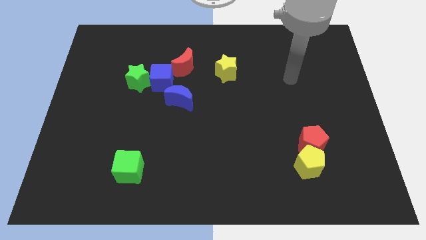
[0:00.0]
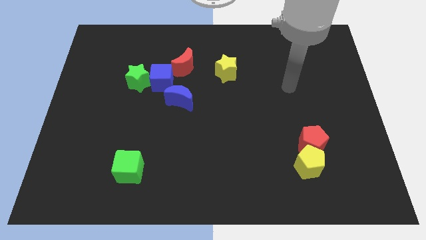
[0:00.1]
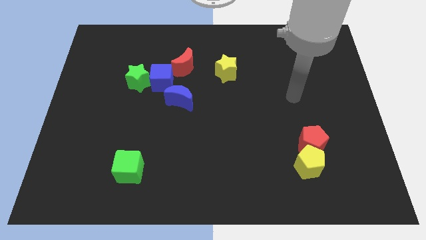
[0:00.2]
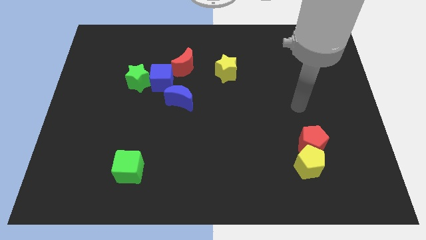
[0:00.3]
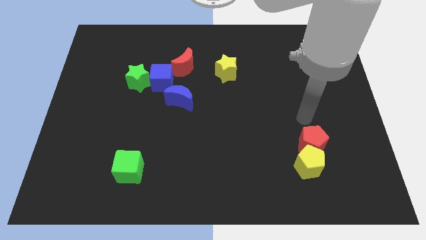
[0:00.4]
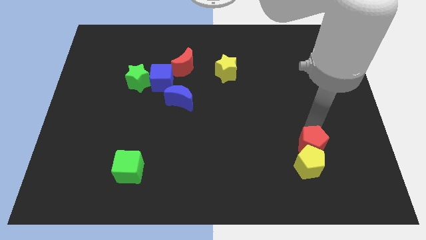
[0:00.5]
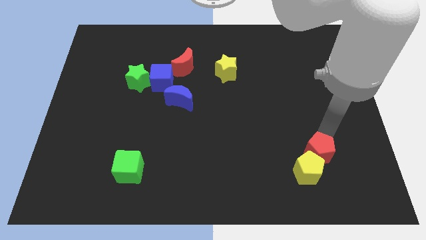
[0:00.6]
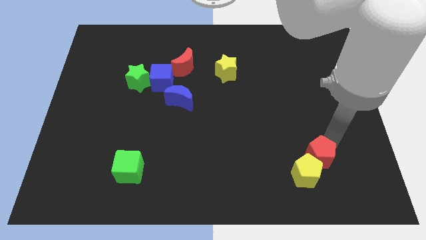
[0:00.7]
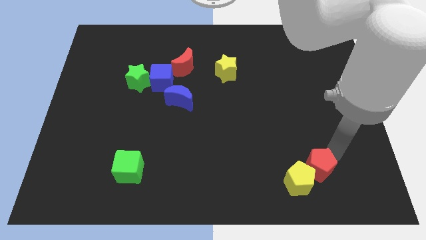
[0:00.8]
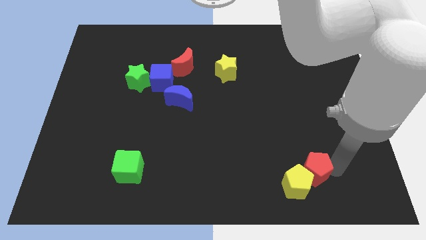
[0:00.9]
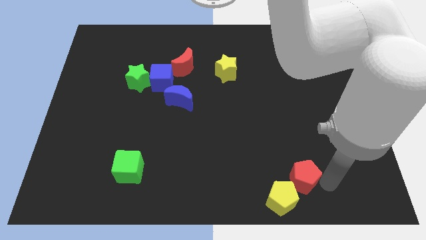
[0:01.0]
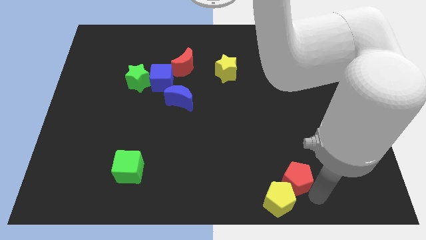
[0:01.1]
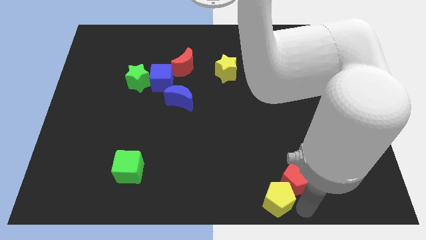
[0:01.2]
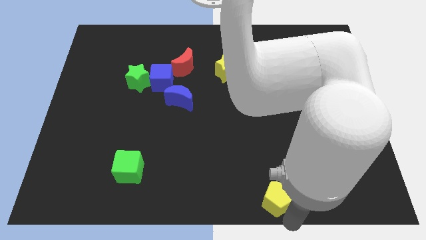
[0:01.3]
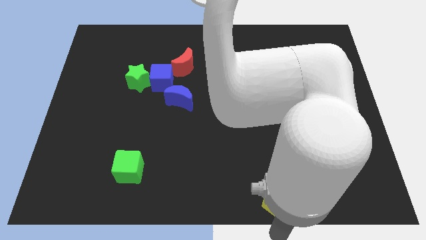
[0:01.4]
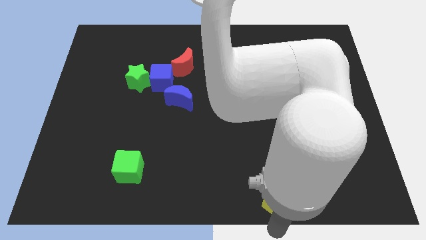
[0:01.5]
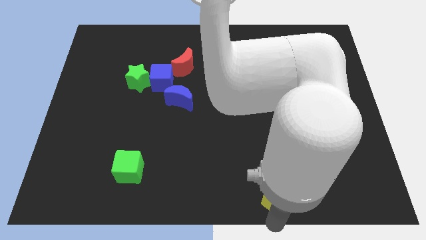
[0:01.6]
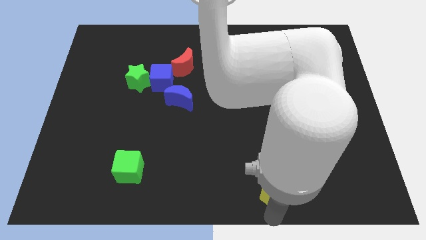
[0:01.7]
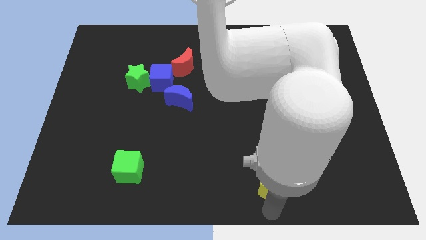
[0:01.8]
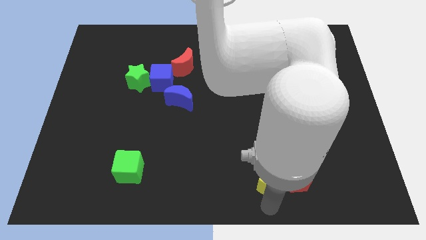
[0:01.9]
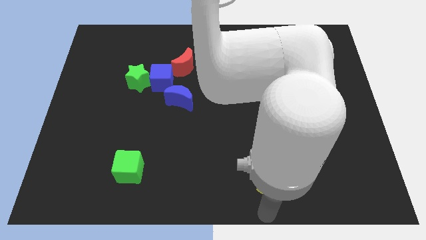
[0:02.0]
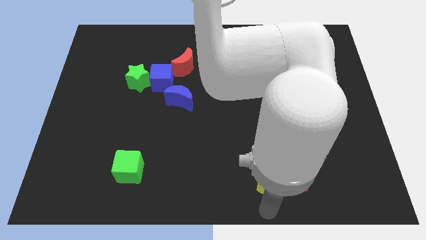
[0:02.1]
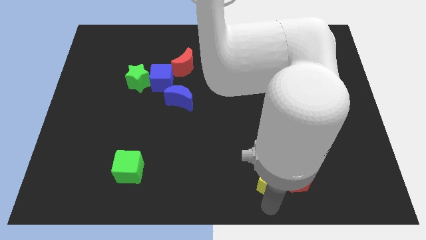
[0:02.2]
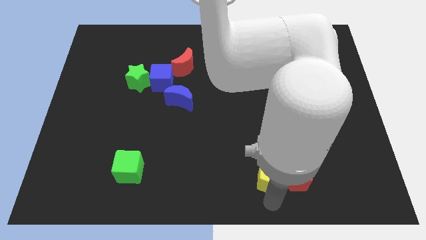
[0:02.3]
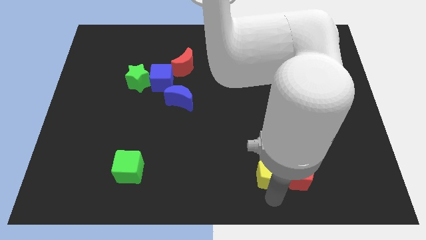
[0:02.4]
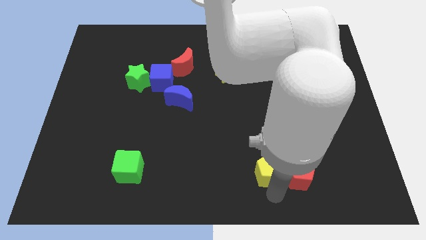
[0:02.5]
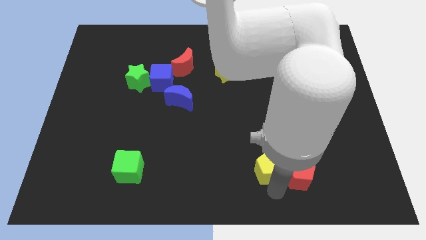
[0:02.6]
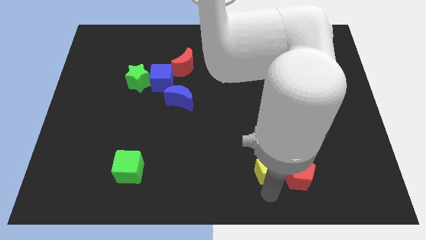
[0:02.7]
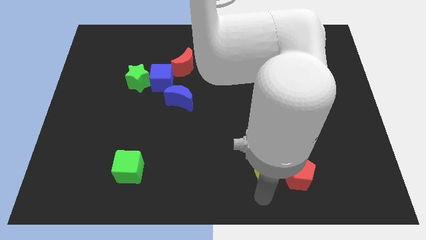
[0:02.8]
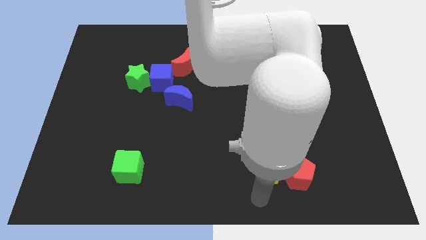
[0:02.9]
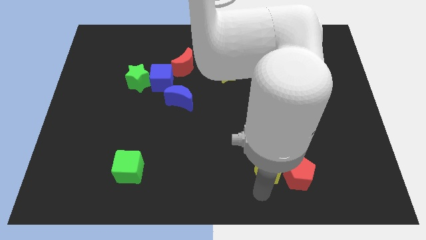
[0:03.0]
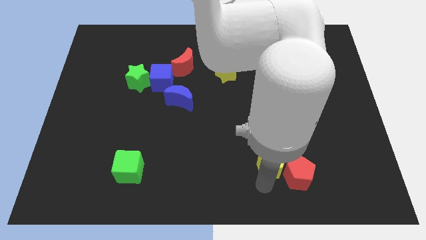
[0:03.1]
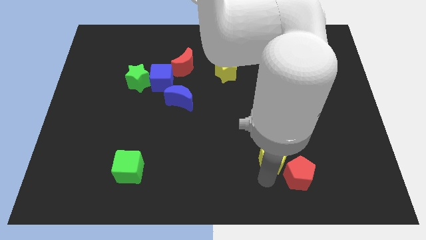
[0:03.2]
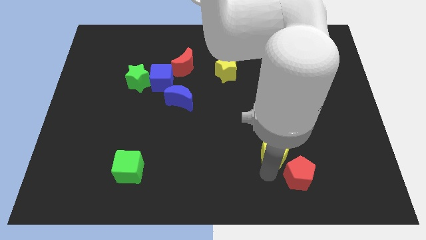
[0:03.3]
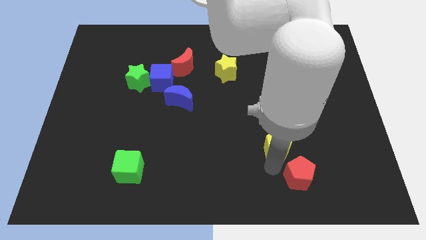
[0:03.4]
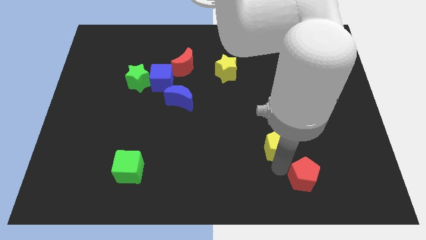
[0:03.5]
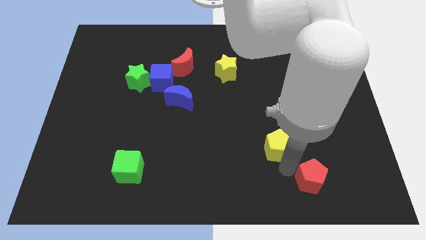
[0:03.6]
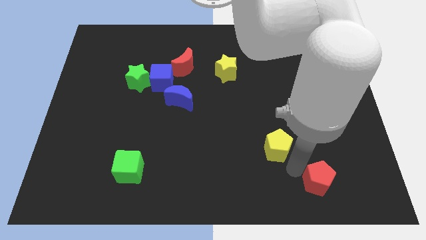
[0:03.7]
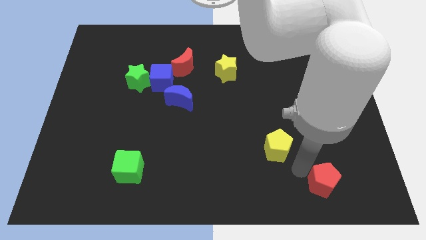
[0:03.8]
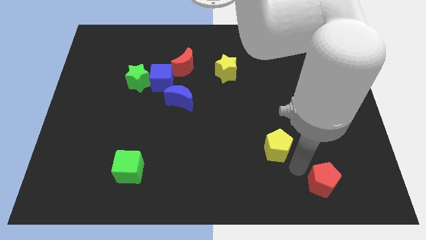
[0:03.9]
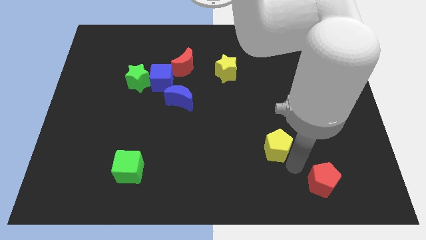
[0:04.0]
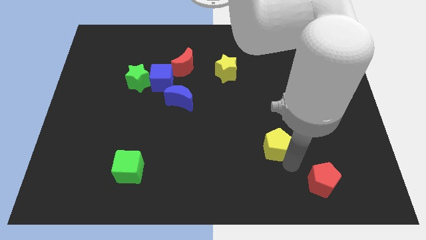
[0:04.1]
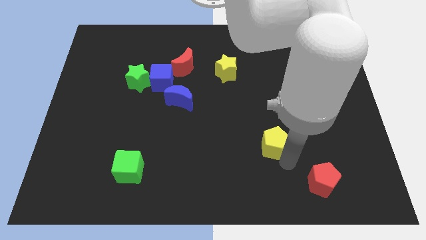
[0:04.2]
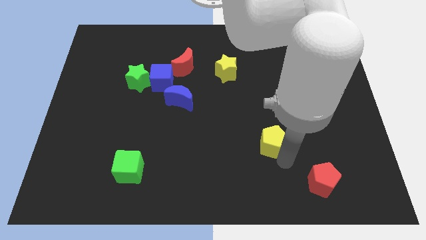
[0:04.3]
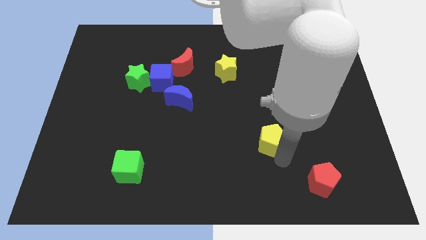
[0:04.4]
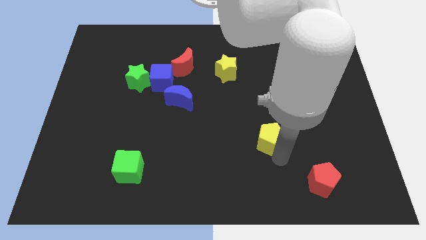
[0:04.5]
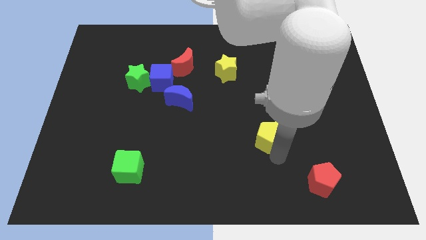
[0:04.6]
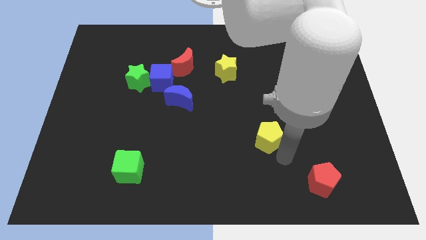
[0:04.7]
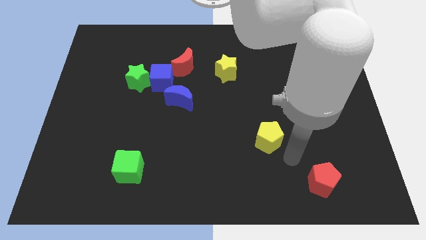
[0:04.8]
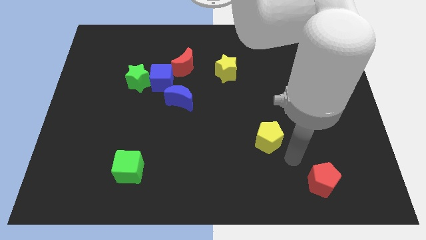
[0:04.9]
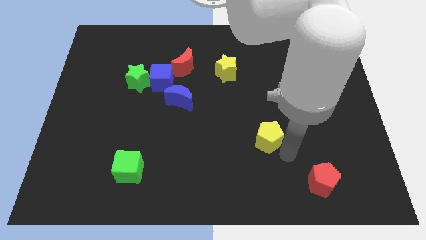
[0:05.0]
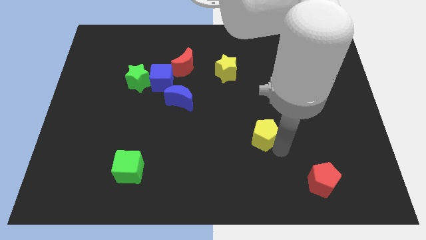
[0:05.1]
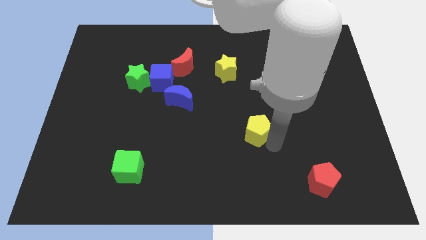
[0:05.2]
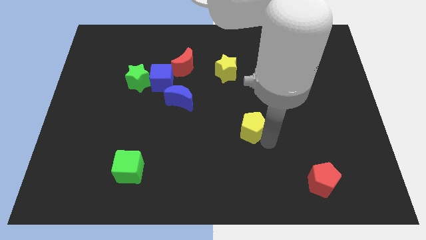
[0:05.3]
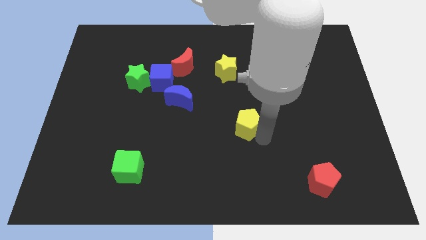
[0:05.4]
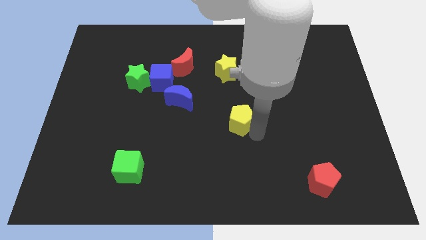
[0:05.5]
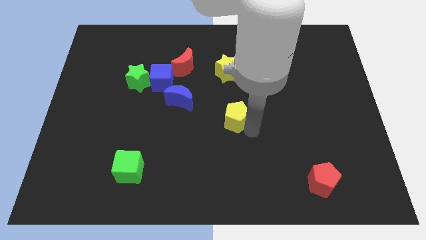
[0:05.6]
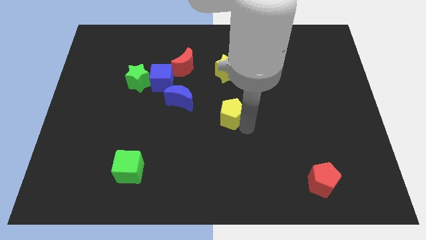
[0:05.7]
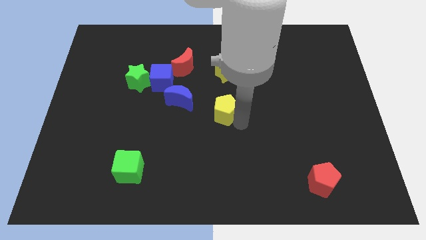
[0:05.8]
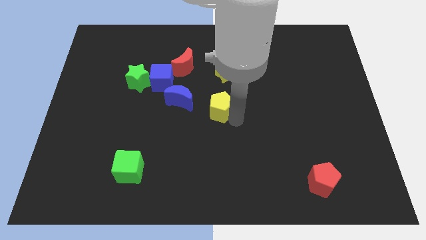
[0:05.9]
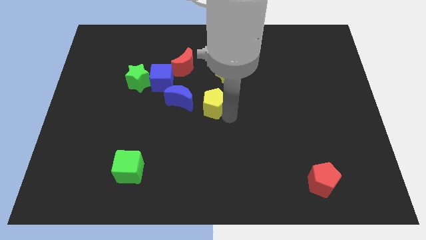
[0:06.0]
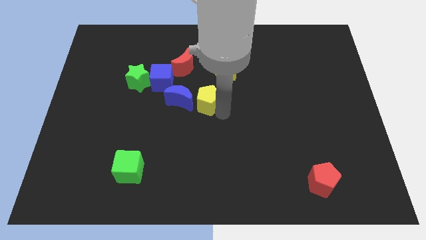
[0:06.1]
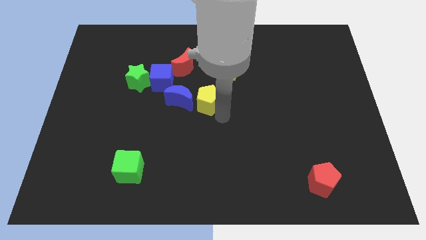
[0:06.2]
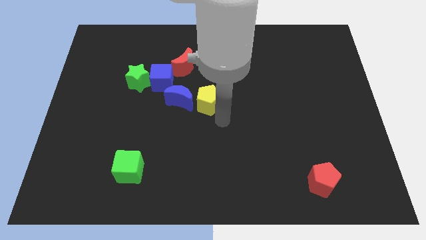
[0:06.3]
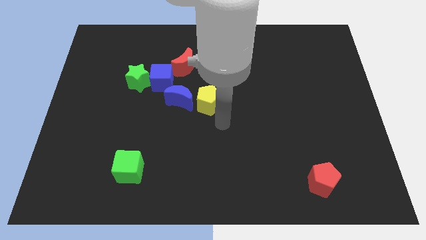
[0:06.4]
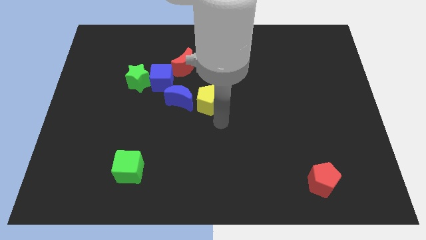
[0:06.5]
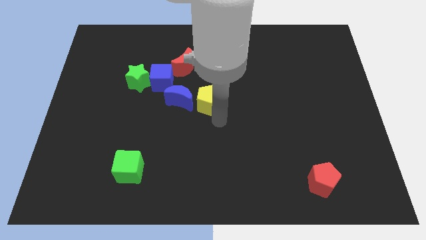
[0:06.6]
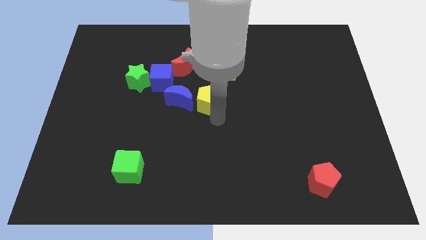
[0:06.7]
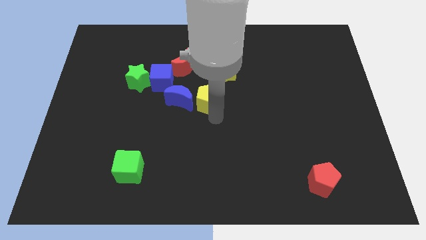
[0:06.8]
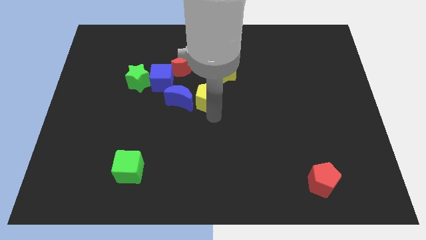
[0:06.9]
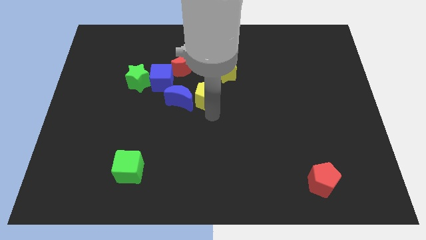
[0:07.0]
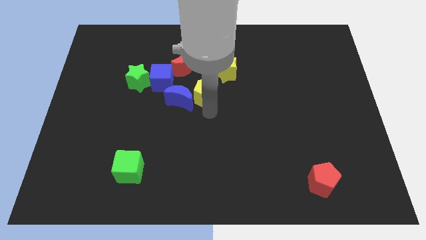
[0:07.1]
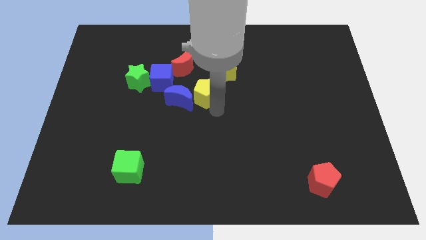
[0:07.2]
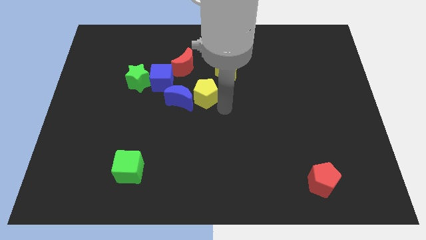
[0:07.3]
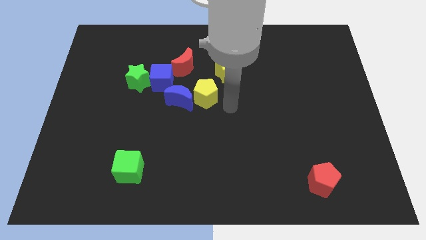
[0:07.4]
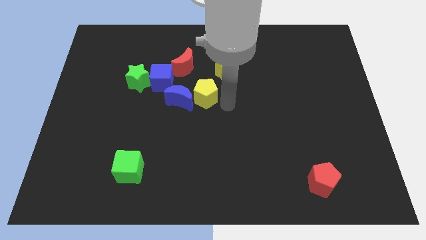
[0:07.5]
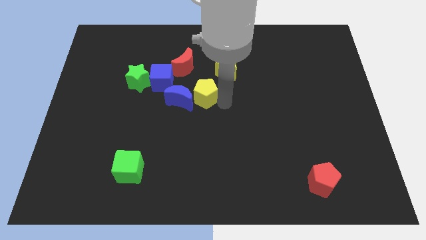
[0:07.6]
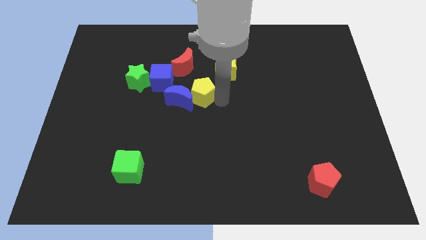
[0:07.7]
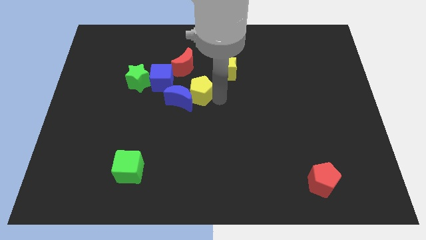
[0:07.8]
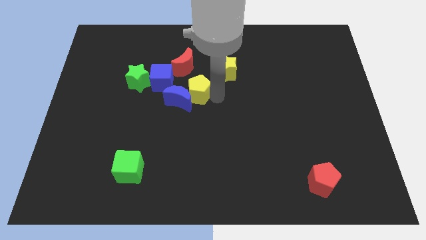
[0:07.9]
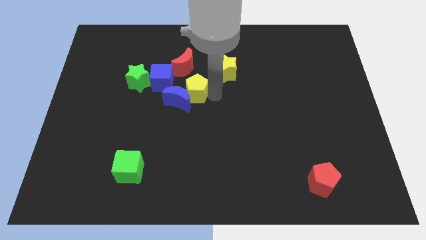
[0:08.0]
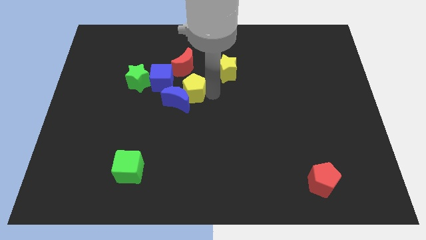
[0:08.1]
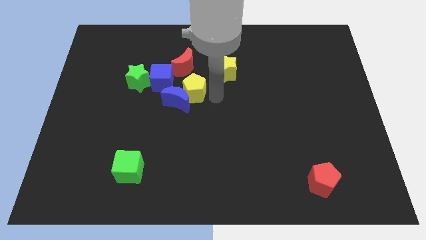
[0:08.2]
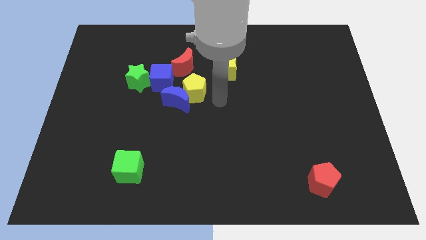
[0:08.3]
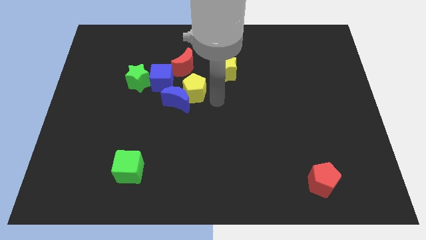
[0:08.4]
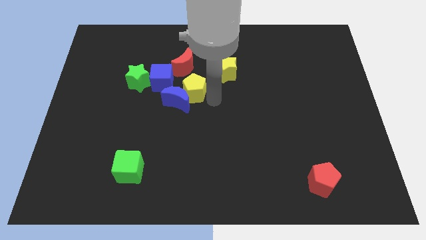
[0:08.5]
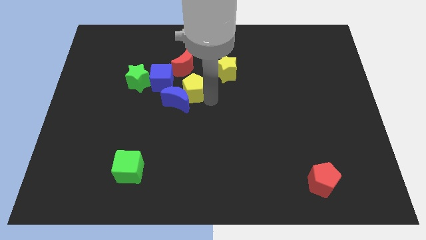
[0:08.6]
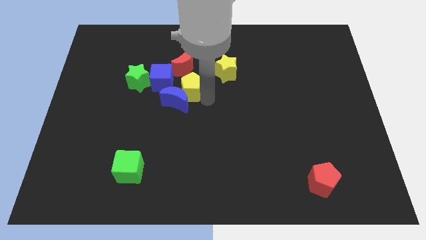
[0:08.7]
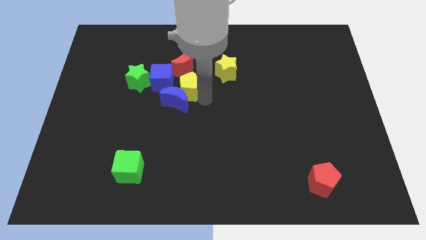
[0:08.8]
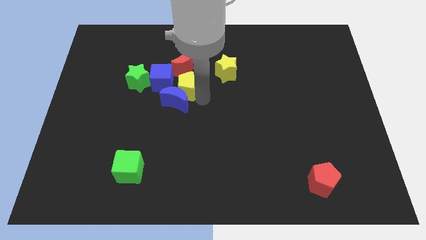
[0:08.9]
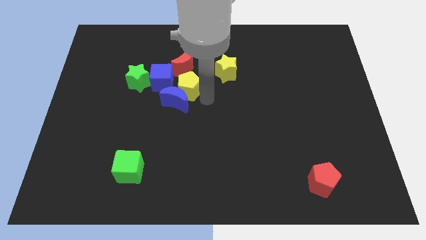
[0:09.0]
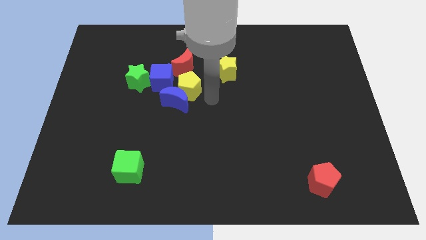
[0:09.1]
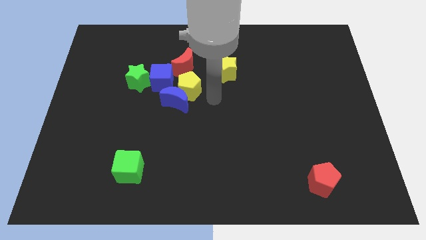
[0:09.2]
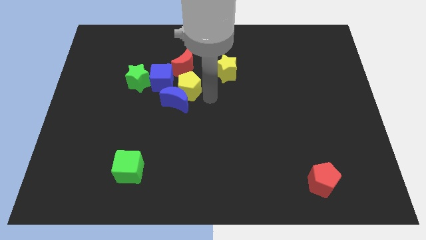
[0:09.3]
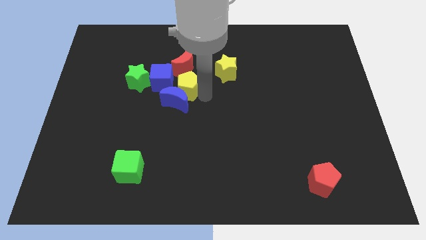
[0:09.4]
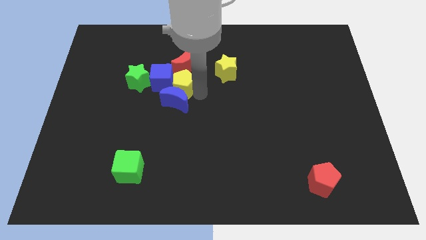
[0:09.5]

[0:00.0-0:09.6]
slide the yellow pentagon close to the blue cube
